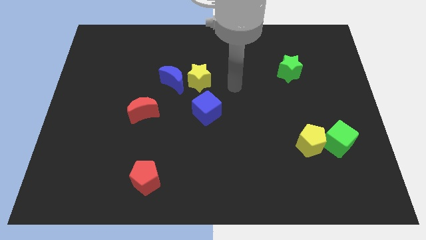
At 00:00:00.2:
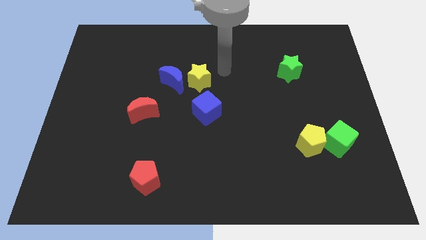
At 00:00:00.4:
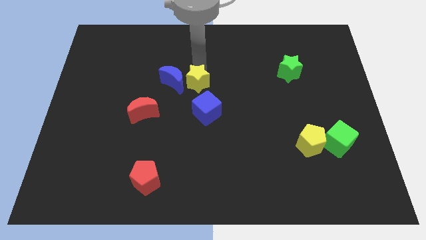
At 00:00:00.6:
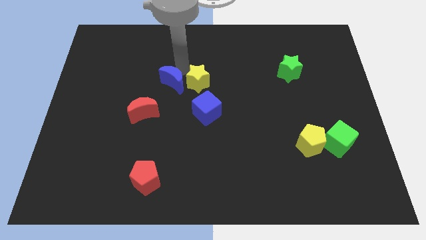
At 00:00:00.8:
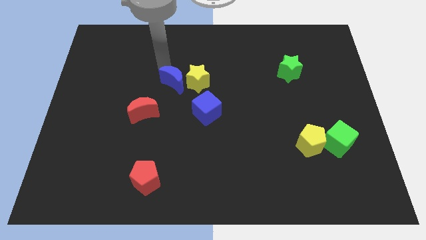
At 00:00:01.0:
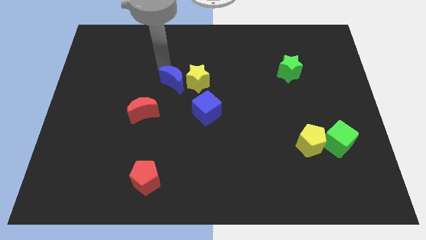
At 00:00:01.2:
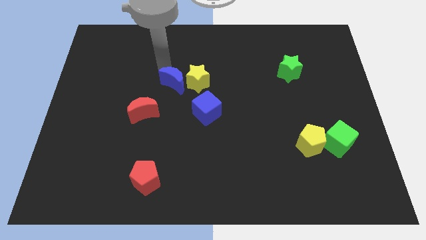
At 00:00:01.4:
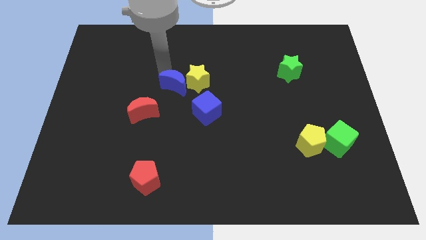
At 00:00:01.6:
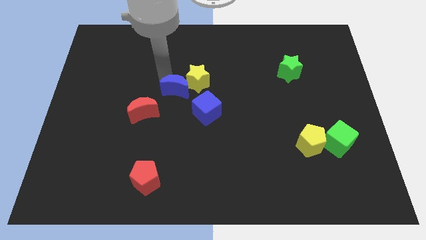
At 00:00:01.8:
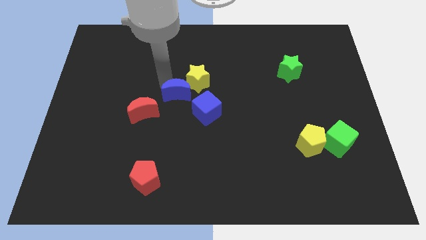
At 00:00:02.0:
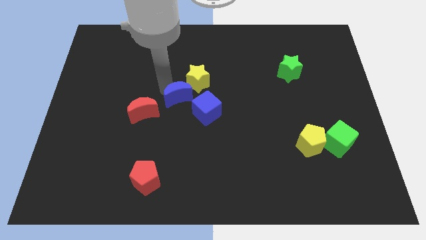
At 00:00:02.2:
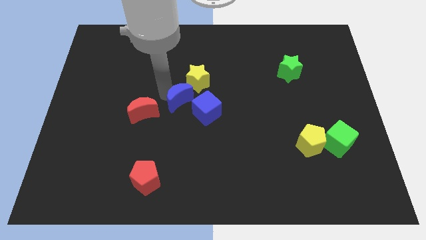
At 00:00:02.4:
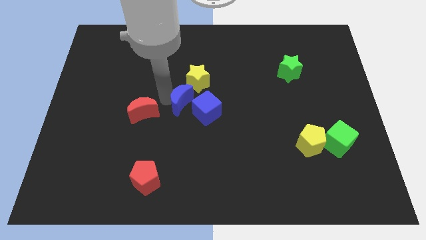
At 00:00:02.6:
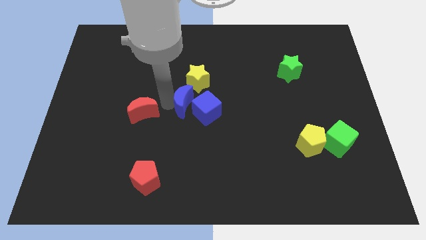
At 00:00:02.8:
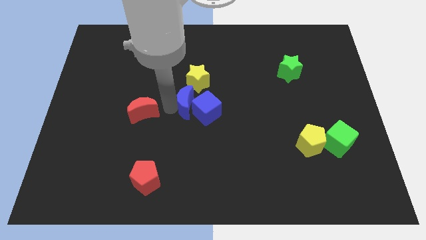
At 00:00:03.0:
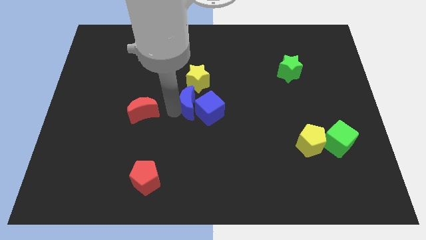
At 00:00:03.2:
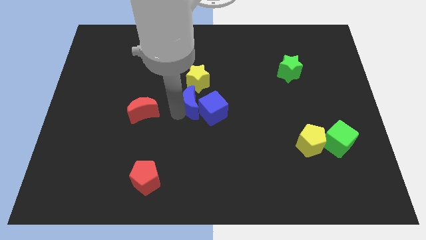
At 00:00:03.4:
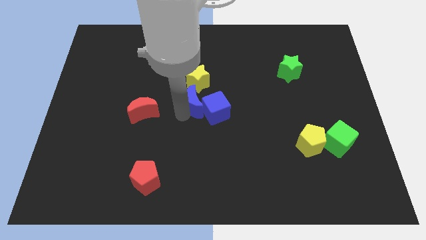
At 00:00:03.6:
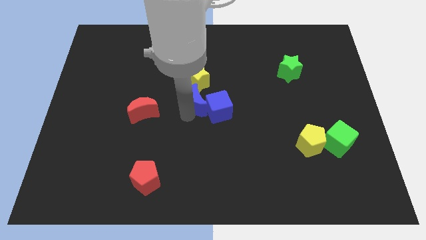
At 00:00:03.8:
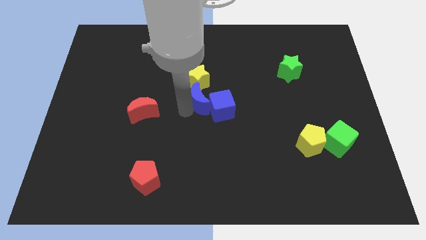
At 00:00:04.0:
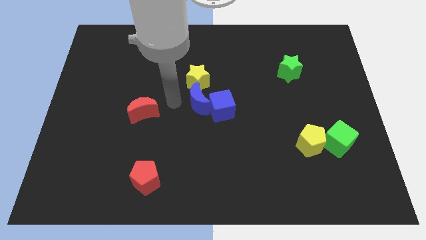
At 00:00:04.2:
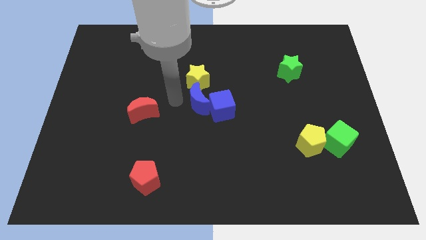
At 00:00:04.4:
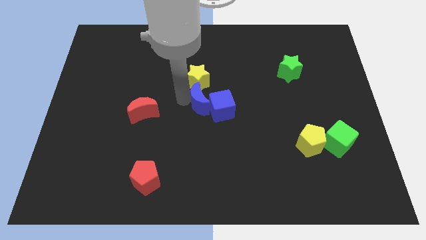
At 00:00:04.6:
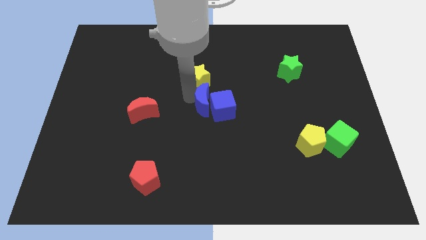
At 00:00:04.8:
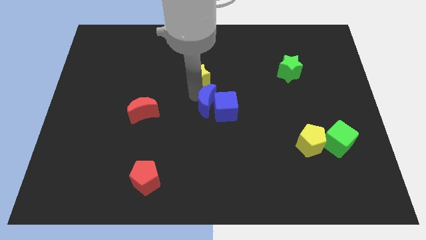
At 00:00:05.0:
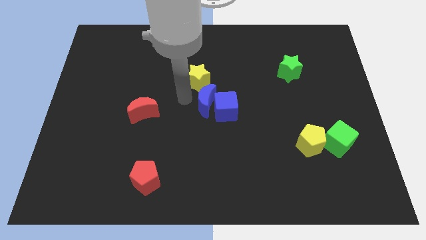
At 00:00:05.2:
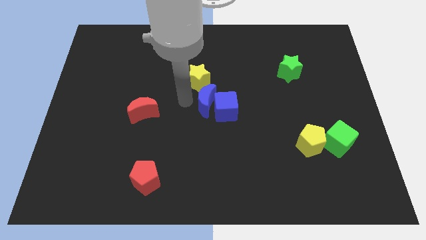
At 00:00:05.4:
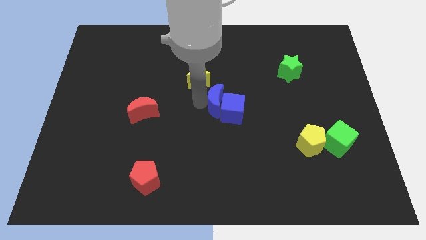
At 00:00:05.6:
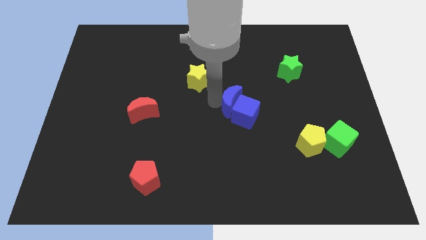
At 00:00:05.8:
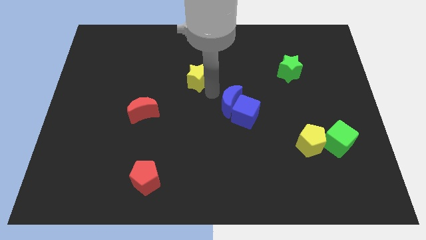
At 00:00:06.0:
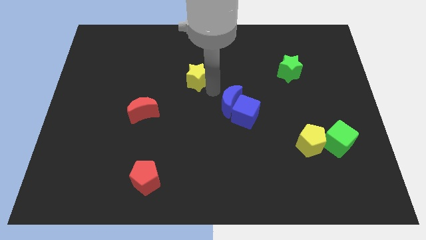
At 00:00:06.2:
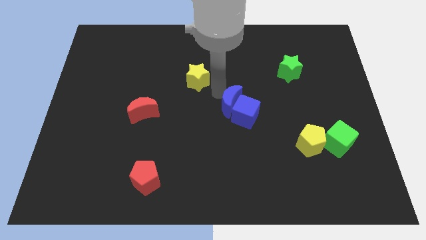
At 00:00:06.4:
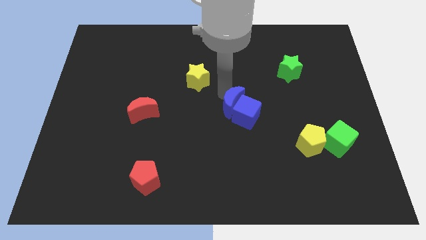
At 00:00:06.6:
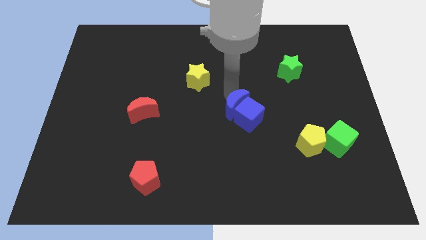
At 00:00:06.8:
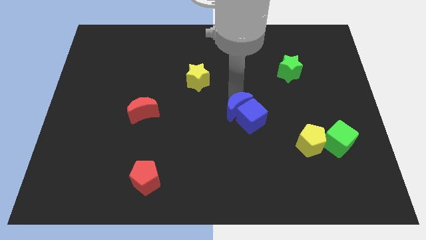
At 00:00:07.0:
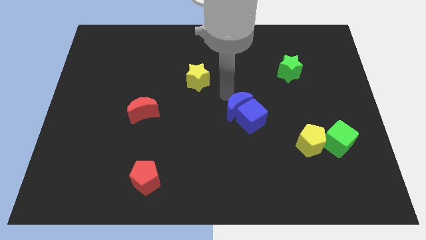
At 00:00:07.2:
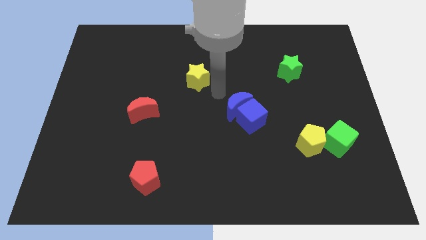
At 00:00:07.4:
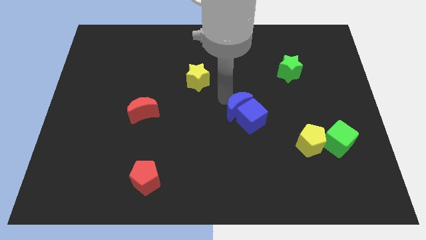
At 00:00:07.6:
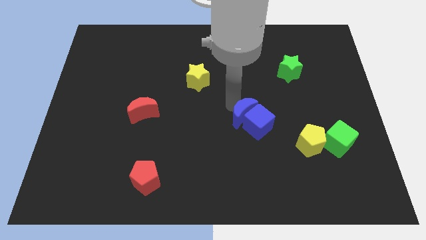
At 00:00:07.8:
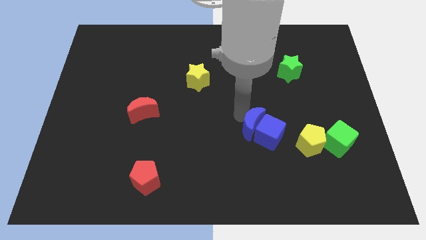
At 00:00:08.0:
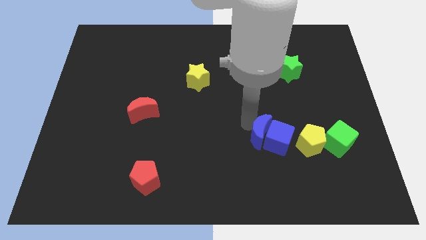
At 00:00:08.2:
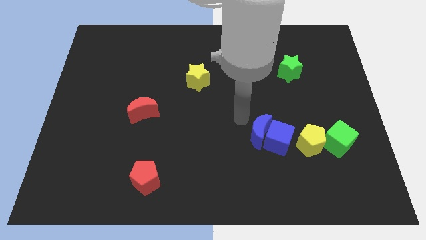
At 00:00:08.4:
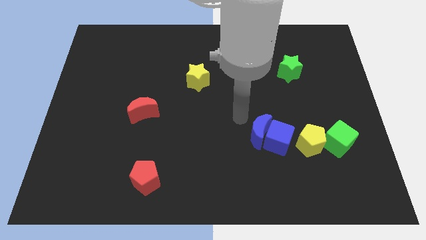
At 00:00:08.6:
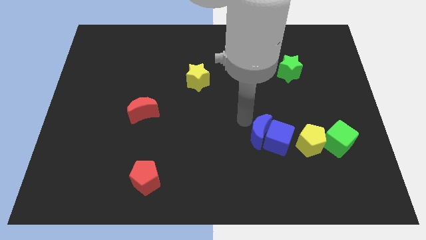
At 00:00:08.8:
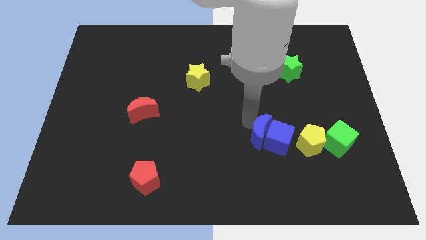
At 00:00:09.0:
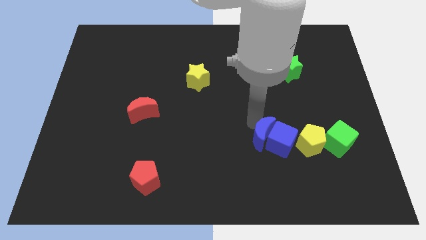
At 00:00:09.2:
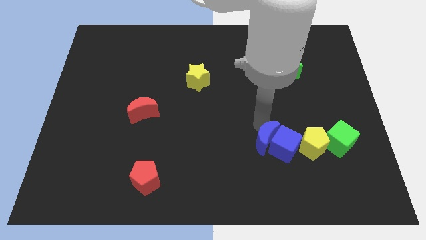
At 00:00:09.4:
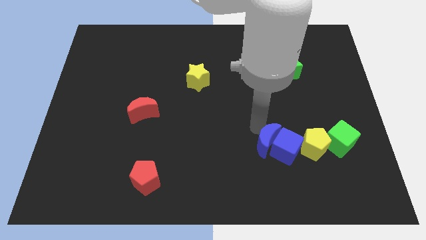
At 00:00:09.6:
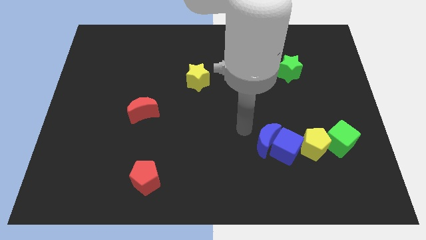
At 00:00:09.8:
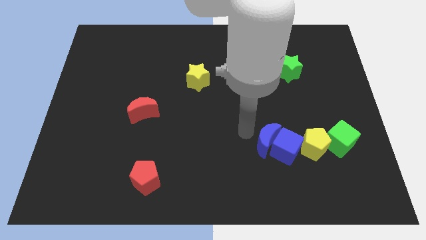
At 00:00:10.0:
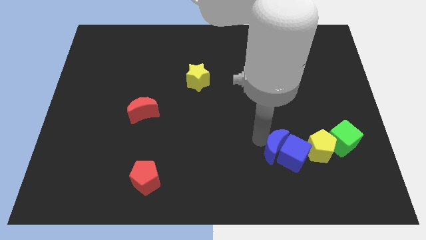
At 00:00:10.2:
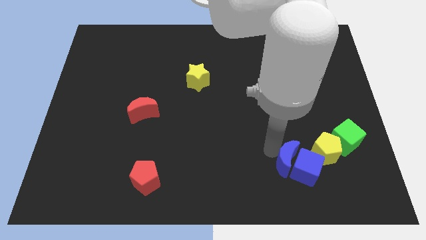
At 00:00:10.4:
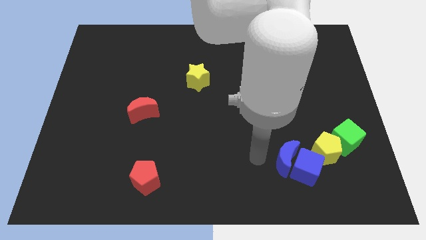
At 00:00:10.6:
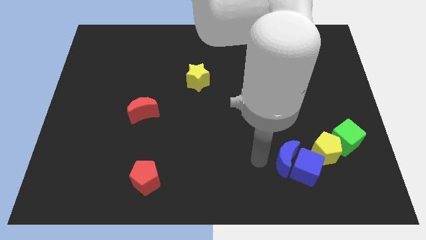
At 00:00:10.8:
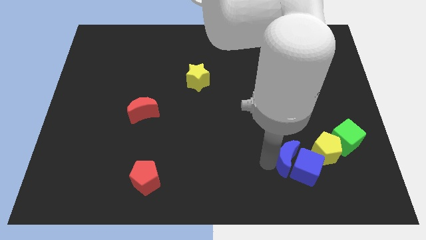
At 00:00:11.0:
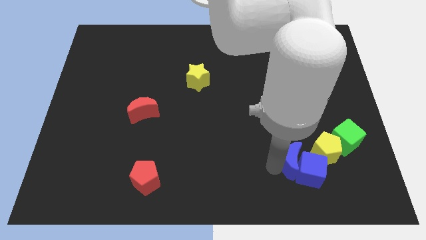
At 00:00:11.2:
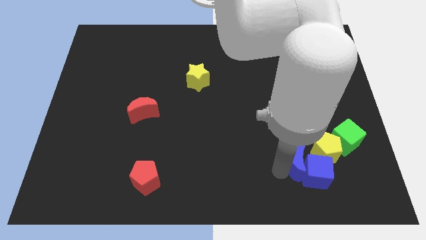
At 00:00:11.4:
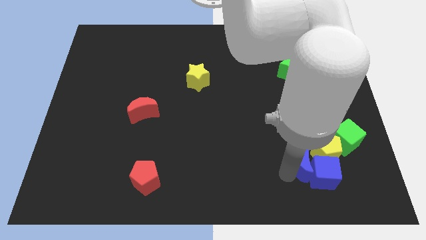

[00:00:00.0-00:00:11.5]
move the blue moon to the bottom left side of the green cube

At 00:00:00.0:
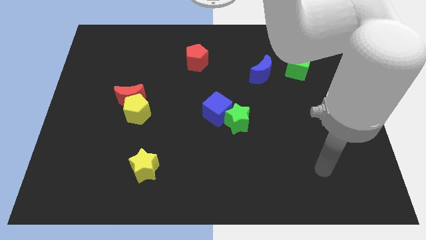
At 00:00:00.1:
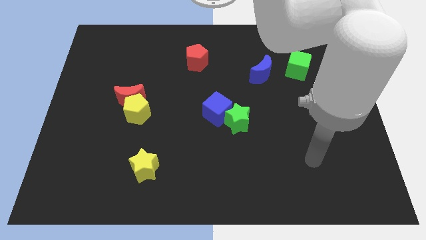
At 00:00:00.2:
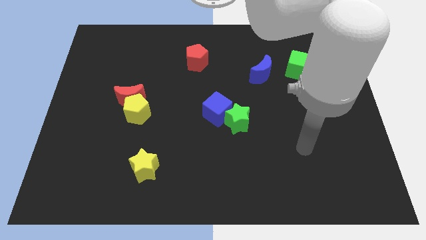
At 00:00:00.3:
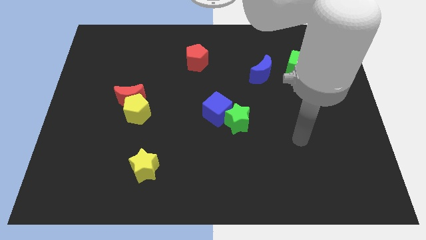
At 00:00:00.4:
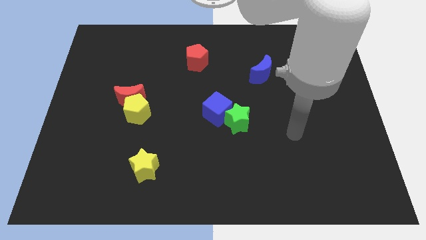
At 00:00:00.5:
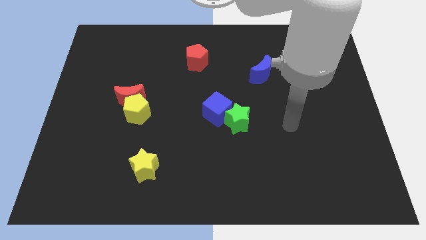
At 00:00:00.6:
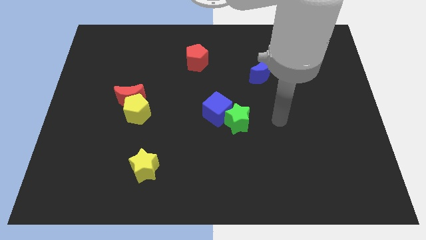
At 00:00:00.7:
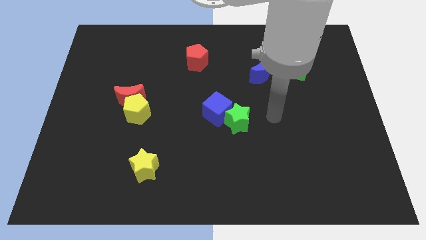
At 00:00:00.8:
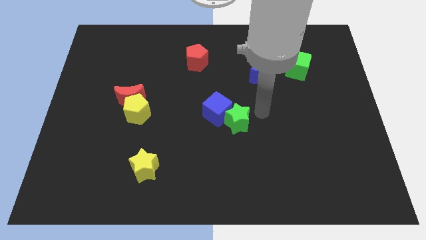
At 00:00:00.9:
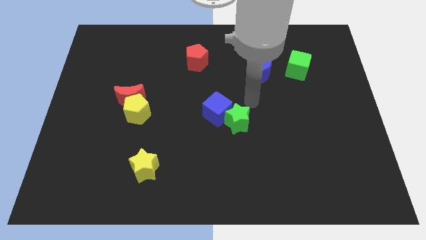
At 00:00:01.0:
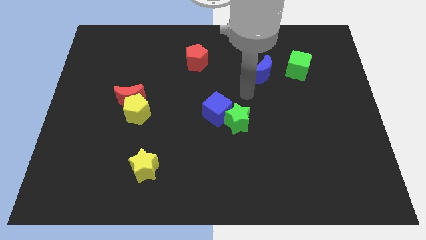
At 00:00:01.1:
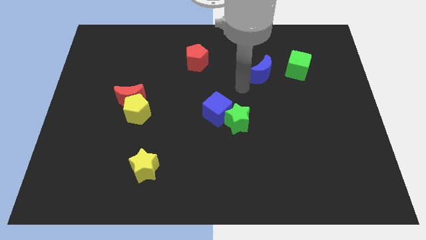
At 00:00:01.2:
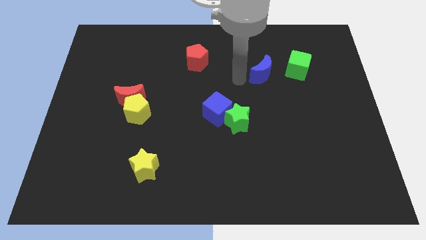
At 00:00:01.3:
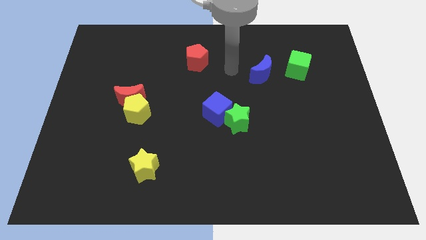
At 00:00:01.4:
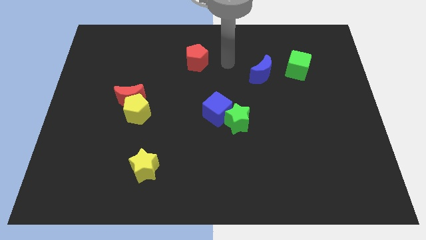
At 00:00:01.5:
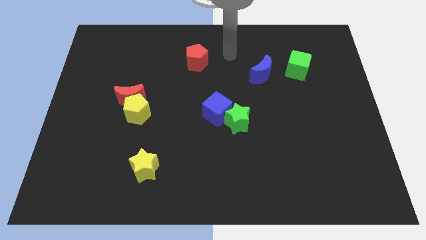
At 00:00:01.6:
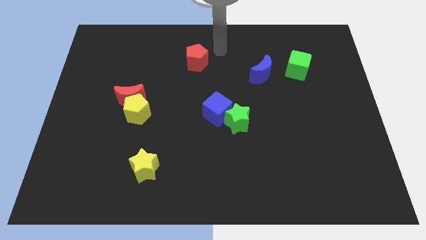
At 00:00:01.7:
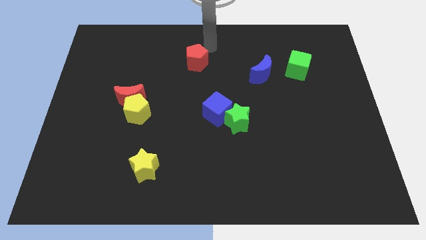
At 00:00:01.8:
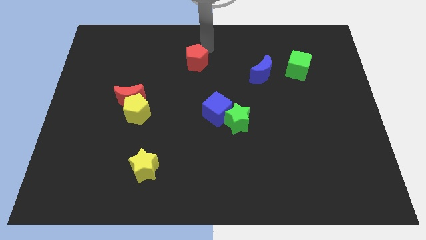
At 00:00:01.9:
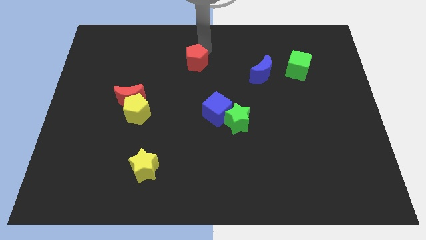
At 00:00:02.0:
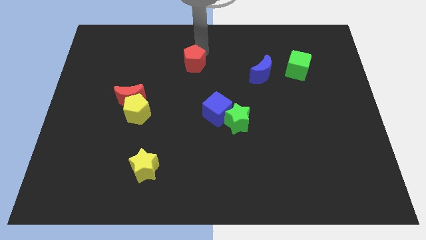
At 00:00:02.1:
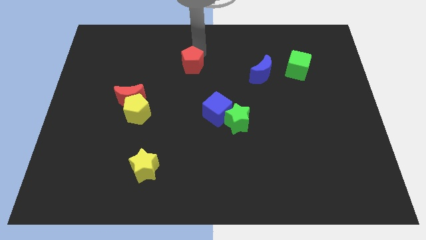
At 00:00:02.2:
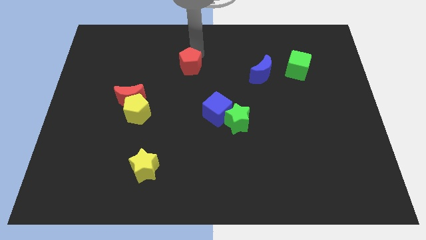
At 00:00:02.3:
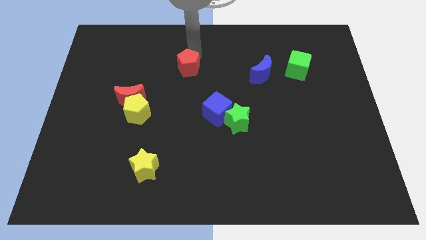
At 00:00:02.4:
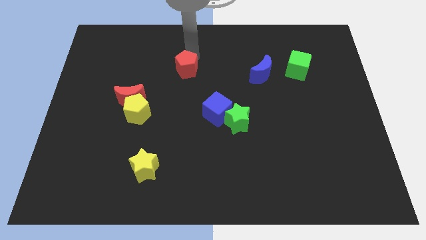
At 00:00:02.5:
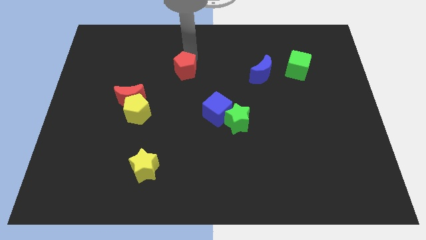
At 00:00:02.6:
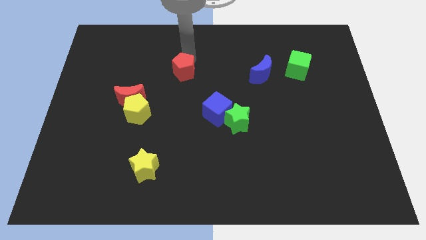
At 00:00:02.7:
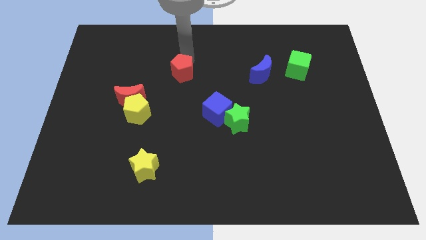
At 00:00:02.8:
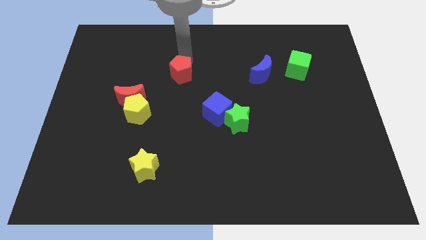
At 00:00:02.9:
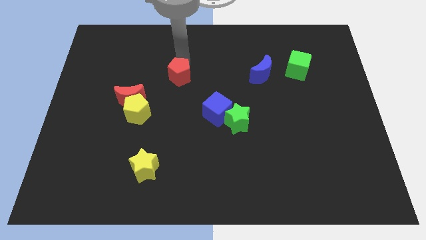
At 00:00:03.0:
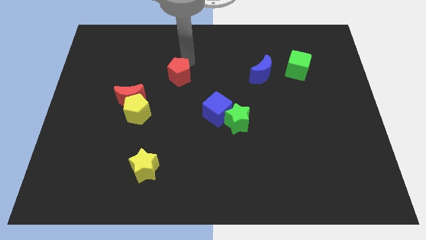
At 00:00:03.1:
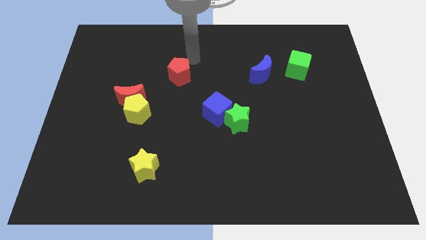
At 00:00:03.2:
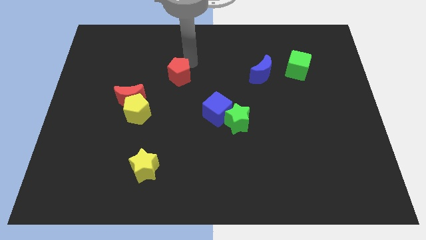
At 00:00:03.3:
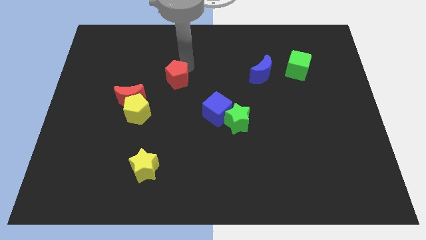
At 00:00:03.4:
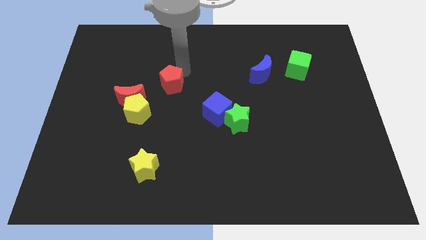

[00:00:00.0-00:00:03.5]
slide the red pentagon to the top right side of the yellow pentagon
